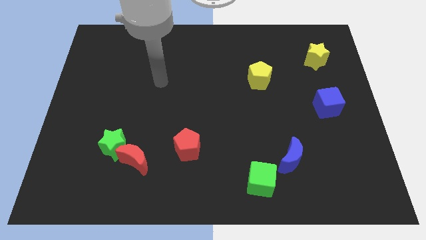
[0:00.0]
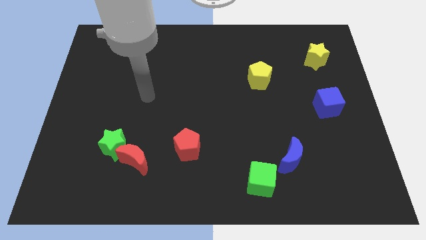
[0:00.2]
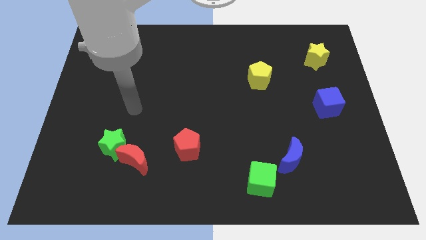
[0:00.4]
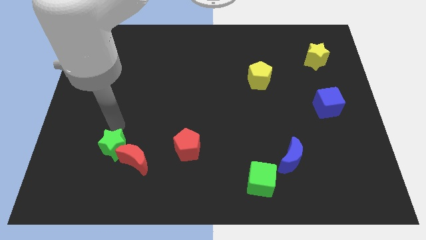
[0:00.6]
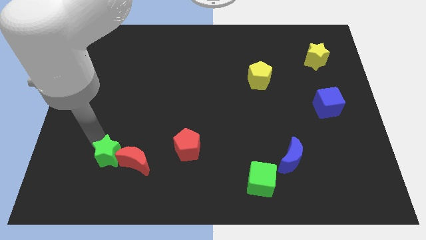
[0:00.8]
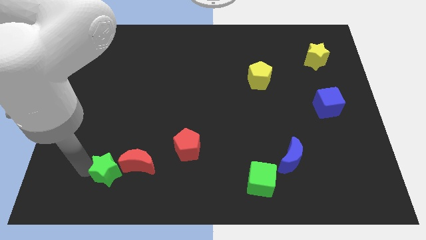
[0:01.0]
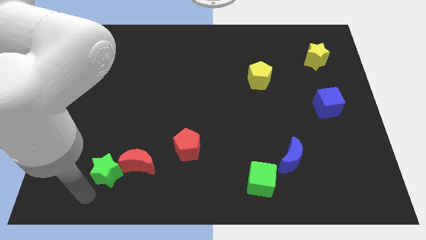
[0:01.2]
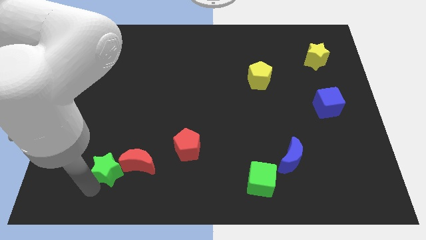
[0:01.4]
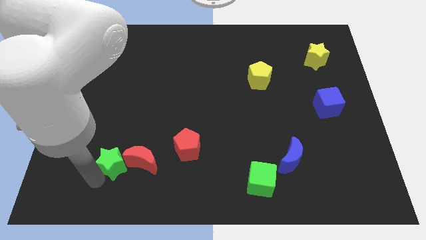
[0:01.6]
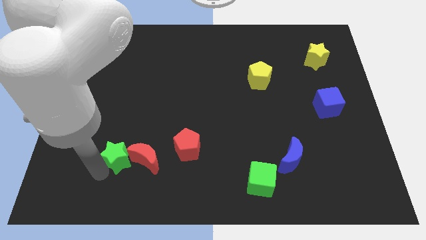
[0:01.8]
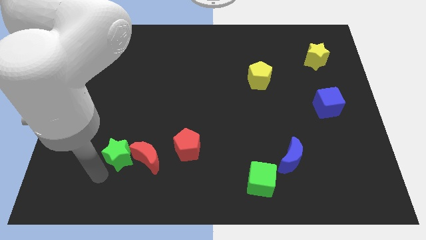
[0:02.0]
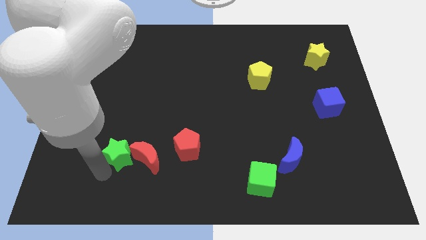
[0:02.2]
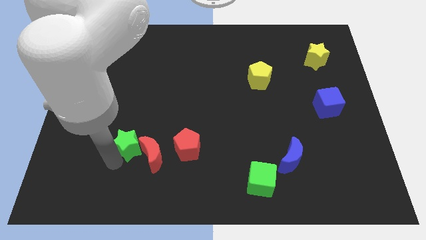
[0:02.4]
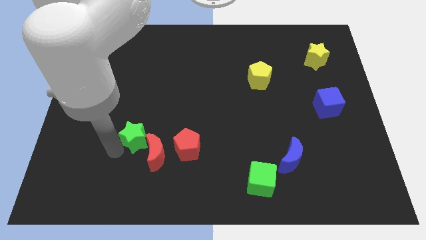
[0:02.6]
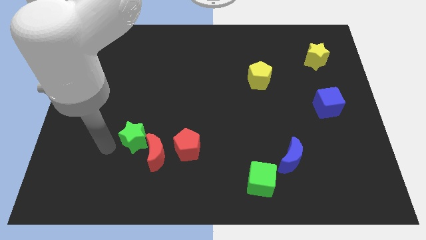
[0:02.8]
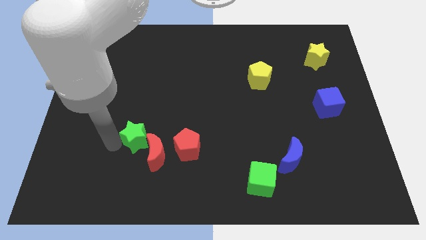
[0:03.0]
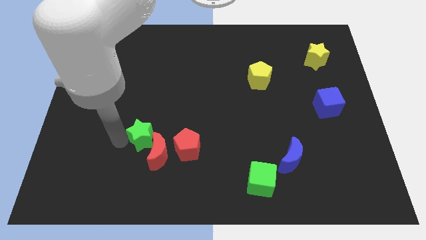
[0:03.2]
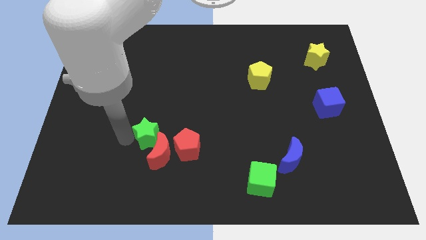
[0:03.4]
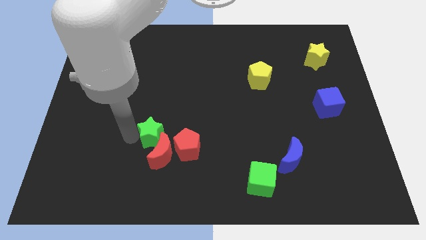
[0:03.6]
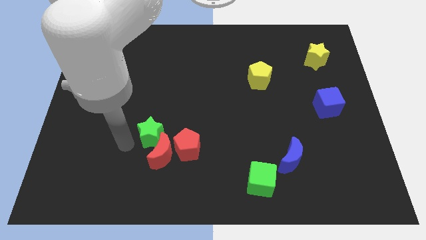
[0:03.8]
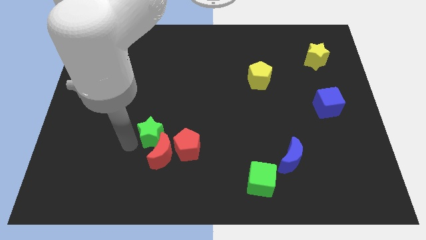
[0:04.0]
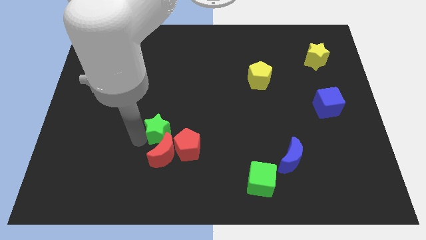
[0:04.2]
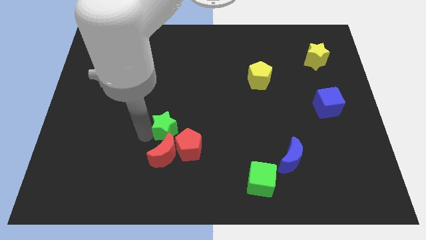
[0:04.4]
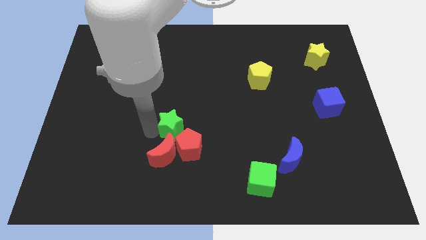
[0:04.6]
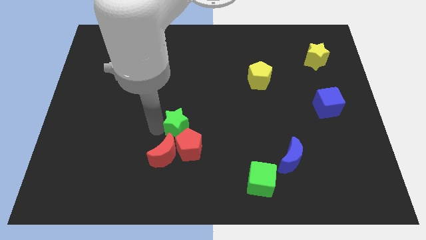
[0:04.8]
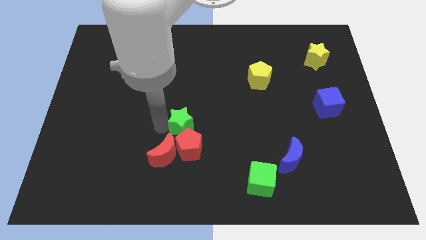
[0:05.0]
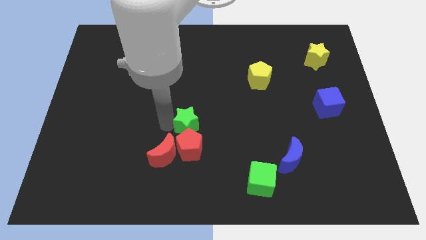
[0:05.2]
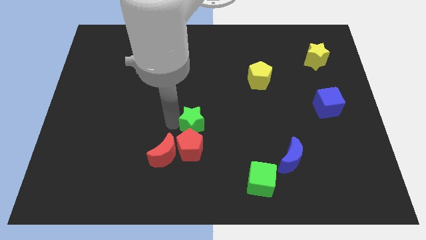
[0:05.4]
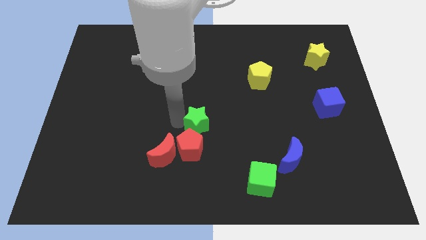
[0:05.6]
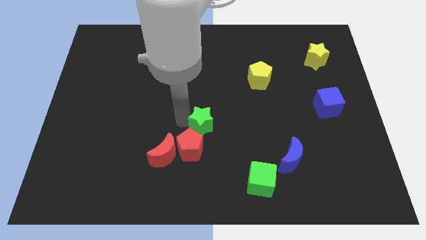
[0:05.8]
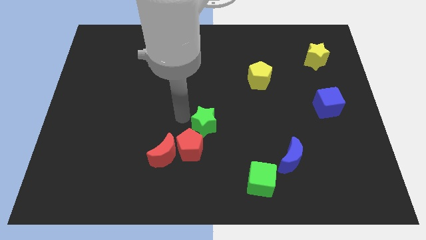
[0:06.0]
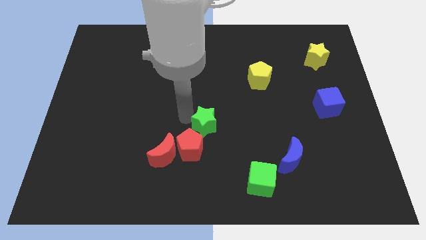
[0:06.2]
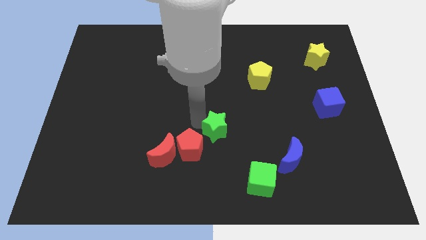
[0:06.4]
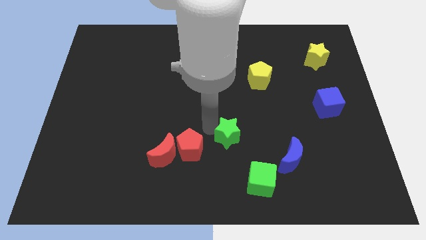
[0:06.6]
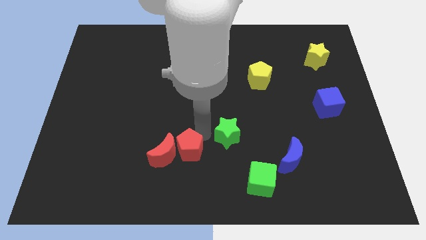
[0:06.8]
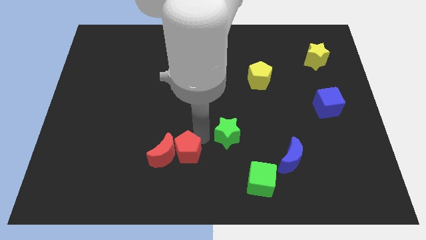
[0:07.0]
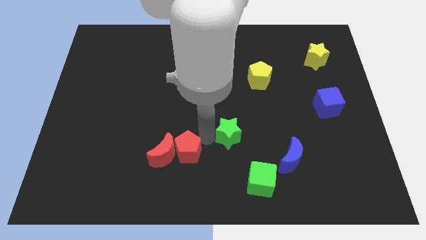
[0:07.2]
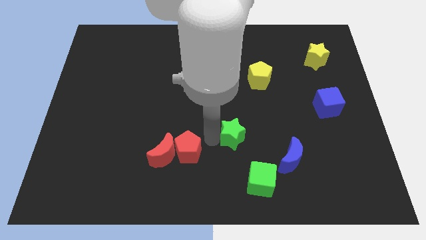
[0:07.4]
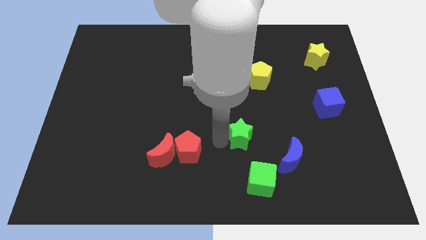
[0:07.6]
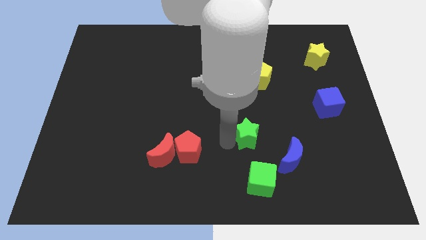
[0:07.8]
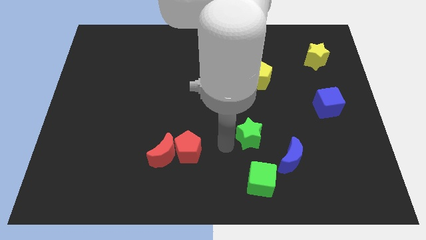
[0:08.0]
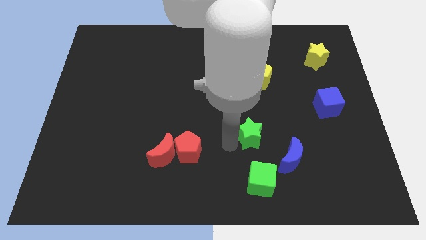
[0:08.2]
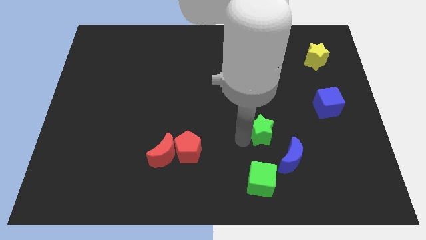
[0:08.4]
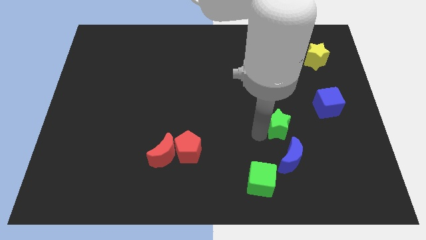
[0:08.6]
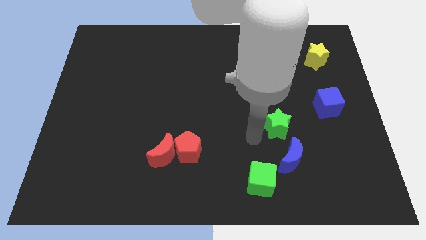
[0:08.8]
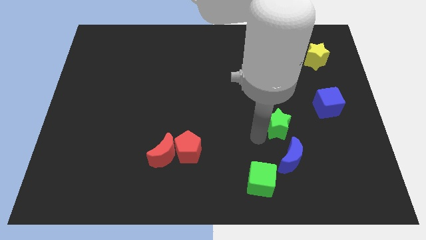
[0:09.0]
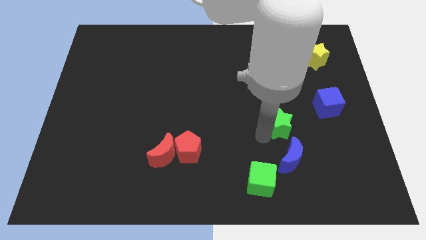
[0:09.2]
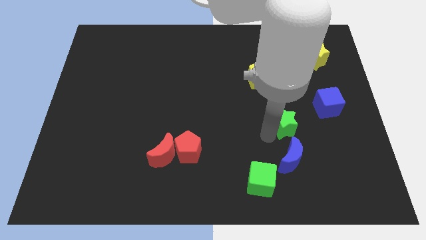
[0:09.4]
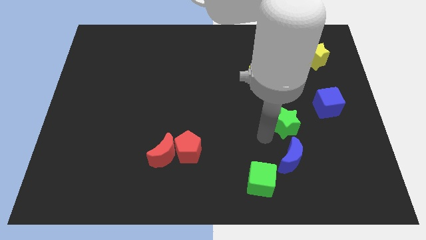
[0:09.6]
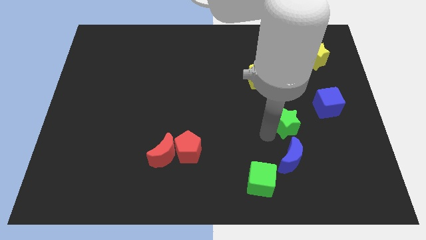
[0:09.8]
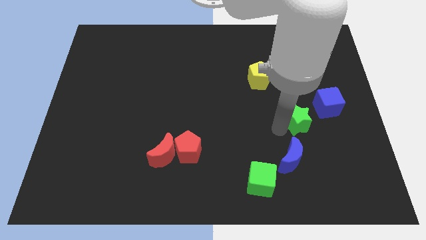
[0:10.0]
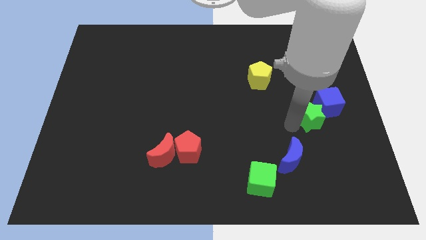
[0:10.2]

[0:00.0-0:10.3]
push the green star next to the blue cube

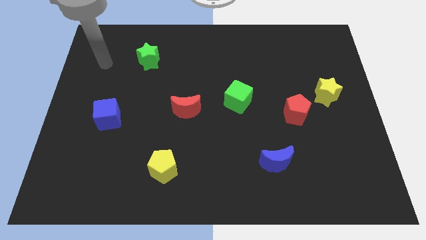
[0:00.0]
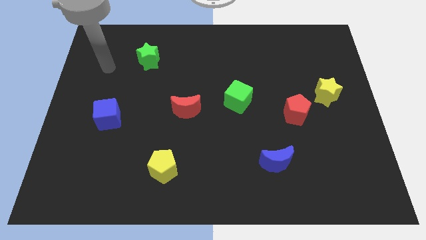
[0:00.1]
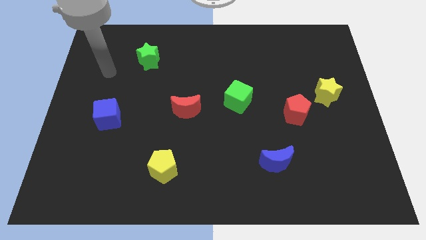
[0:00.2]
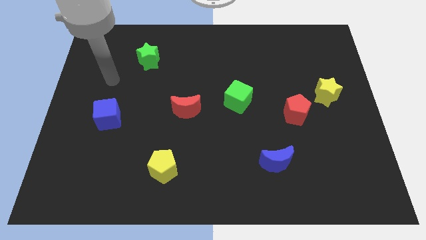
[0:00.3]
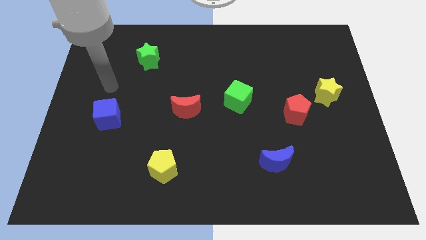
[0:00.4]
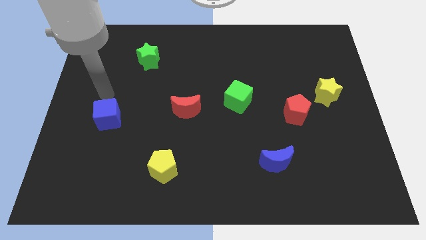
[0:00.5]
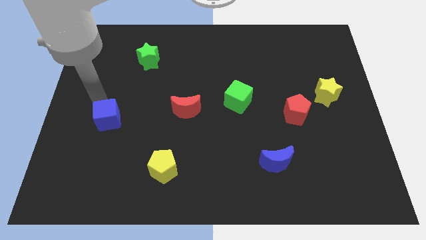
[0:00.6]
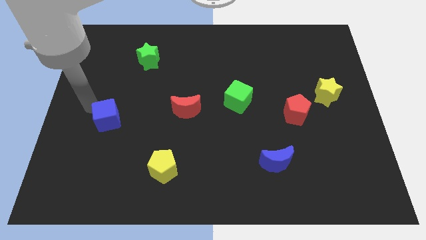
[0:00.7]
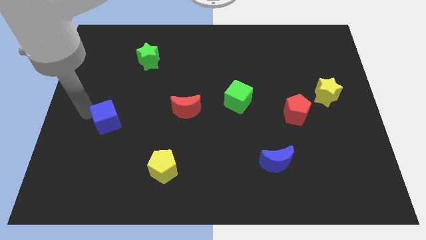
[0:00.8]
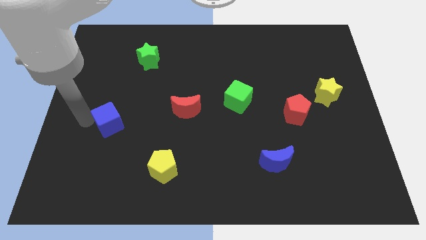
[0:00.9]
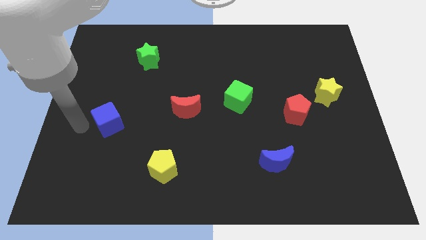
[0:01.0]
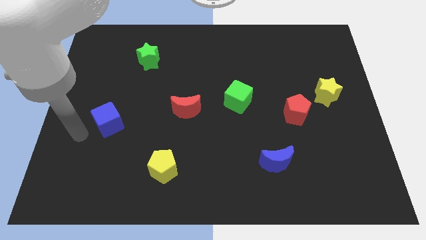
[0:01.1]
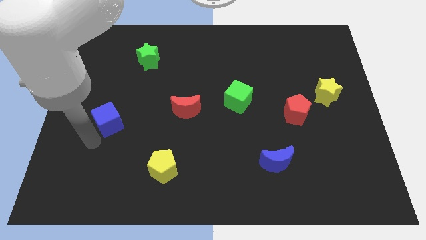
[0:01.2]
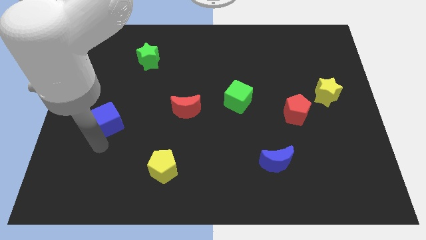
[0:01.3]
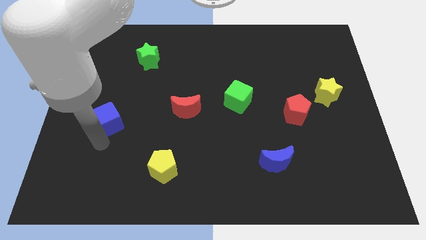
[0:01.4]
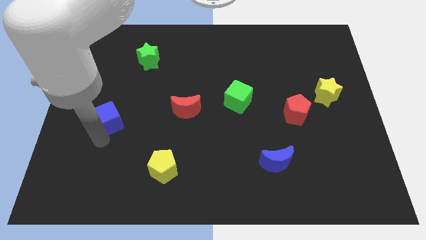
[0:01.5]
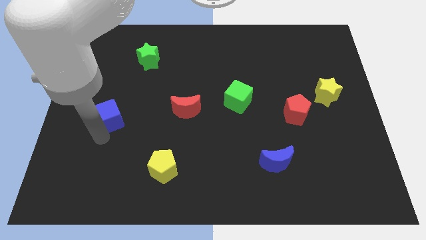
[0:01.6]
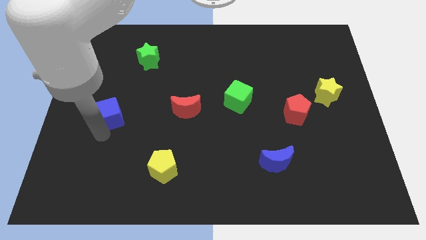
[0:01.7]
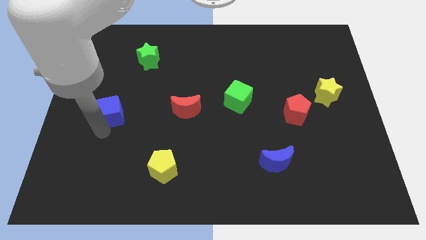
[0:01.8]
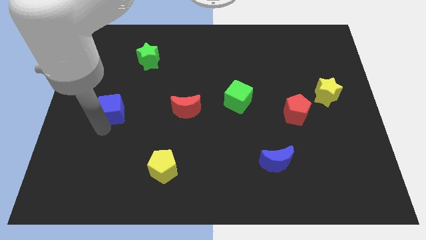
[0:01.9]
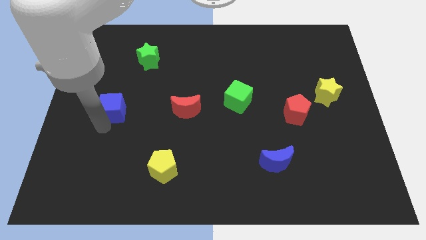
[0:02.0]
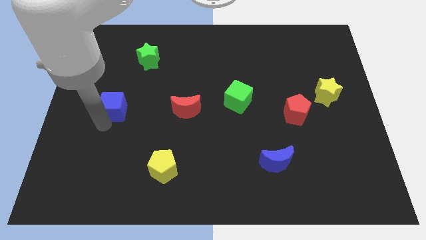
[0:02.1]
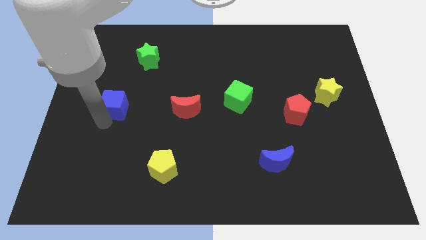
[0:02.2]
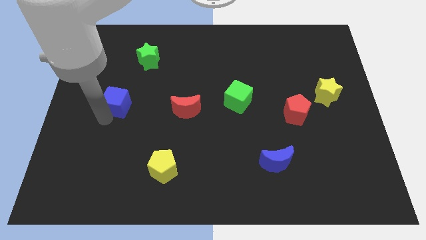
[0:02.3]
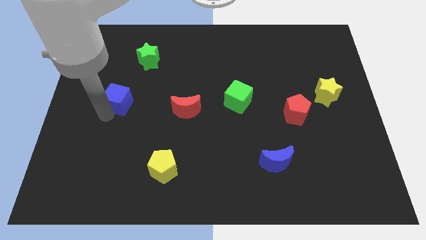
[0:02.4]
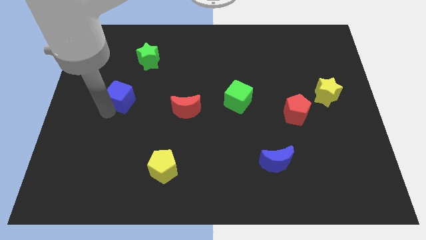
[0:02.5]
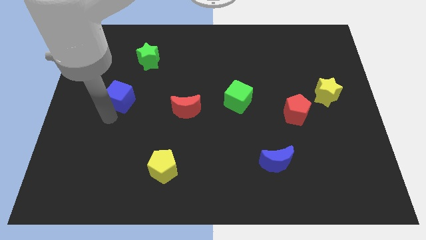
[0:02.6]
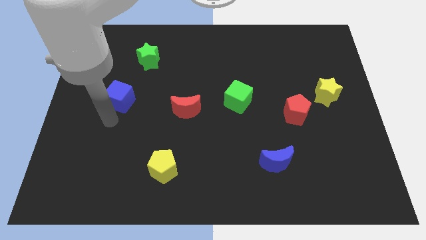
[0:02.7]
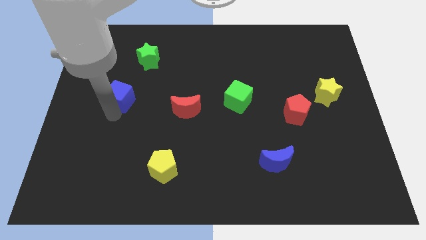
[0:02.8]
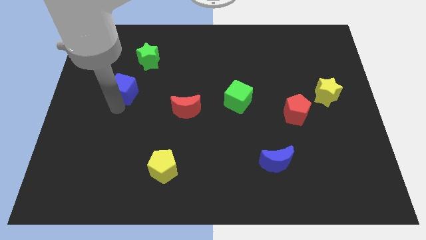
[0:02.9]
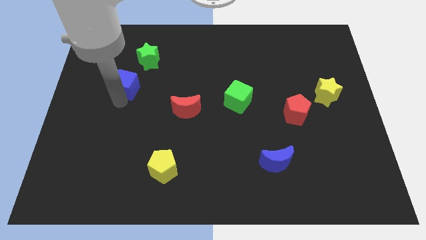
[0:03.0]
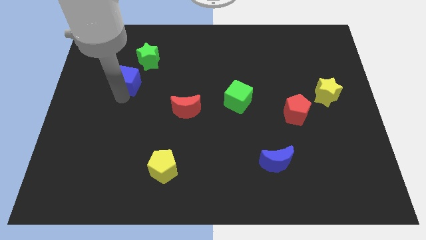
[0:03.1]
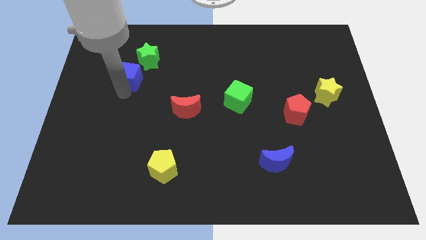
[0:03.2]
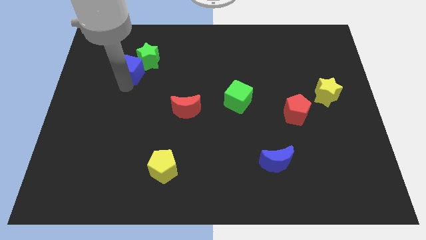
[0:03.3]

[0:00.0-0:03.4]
move the blue cube next to the green star
